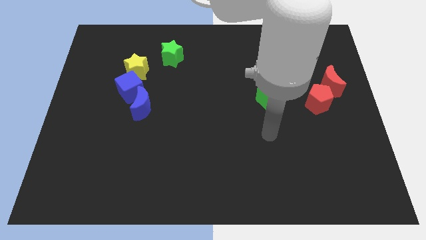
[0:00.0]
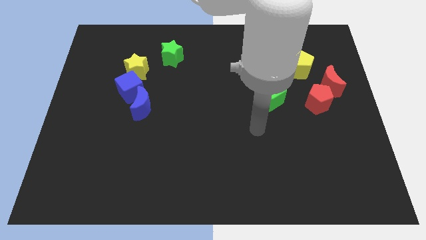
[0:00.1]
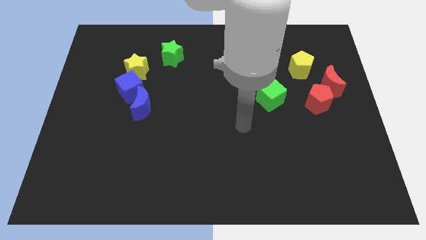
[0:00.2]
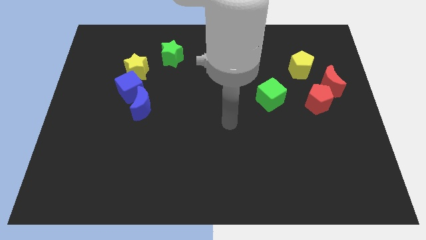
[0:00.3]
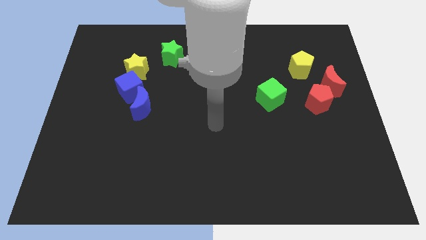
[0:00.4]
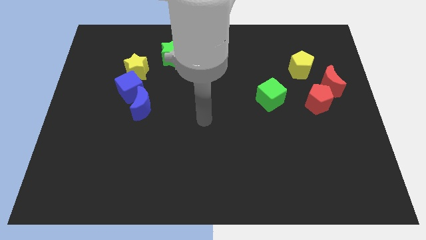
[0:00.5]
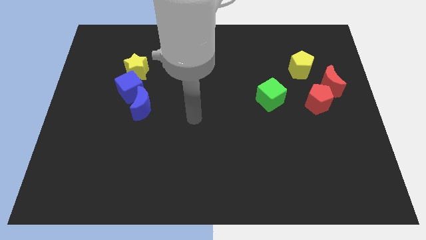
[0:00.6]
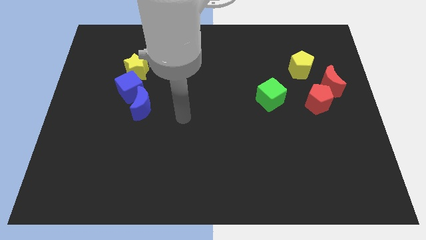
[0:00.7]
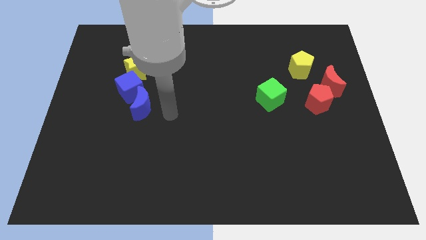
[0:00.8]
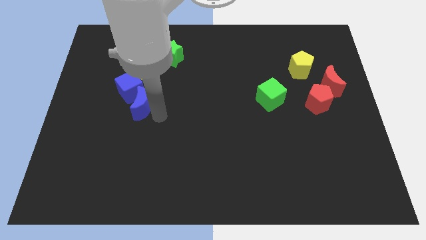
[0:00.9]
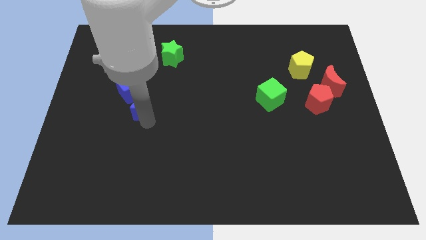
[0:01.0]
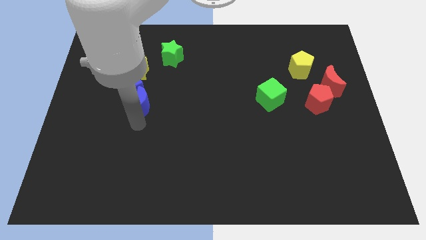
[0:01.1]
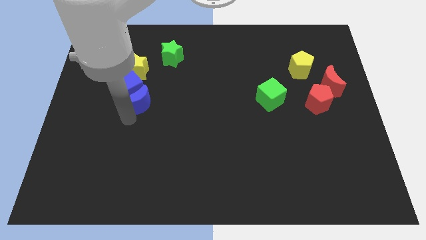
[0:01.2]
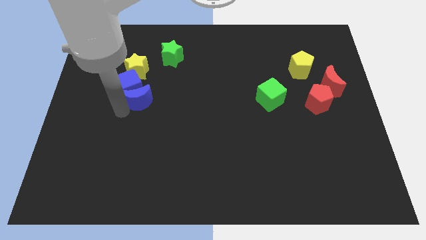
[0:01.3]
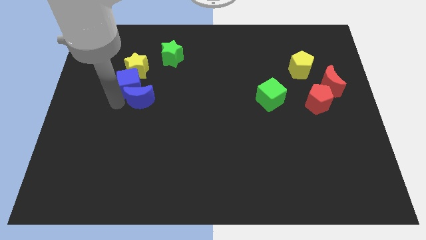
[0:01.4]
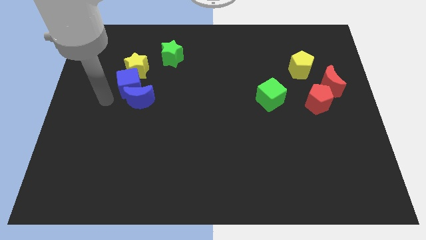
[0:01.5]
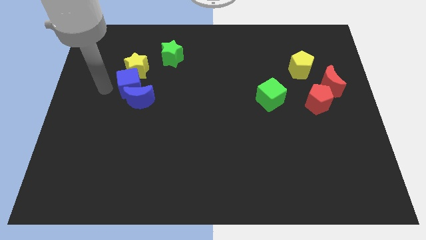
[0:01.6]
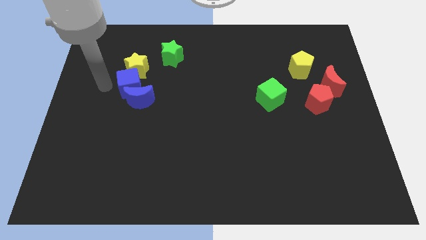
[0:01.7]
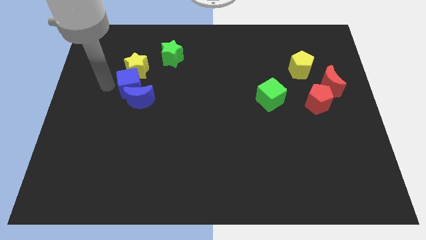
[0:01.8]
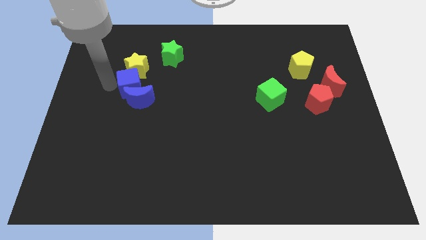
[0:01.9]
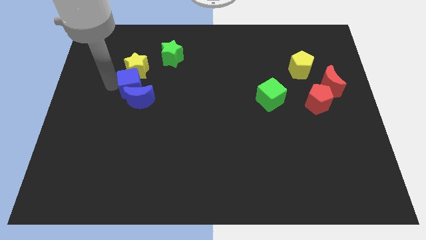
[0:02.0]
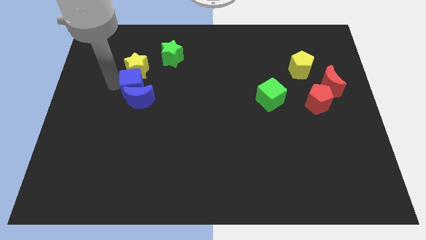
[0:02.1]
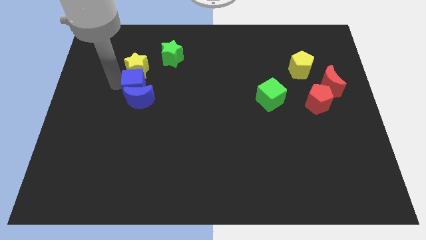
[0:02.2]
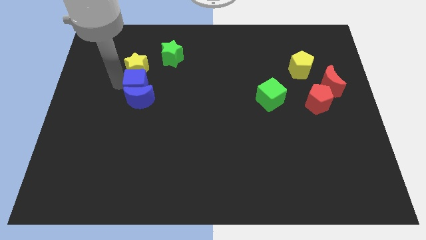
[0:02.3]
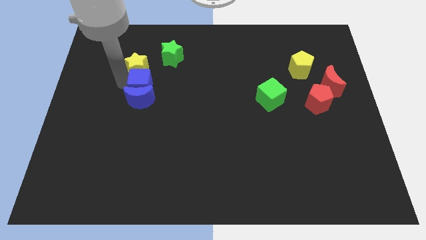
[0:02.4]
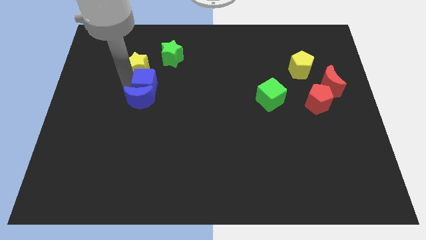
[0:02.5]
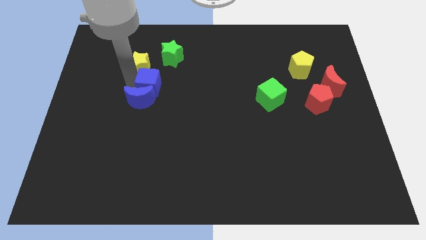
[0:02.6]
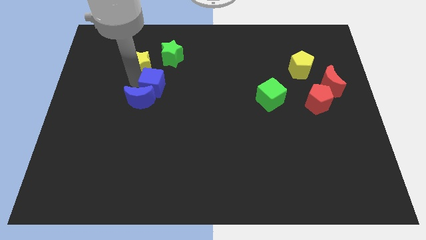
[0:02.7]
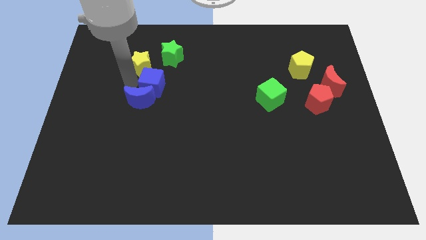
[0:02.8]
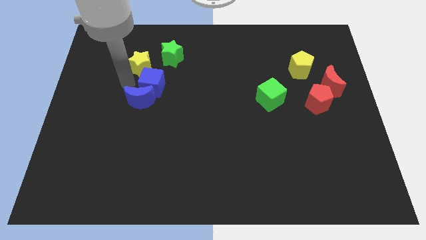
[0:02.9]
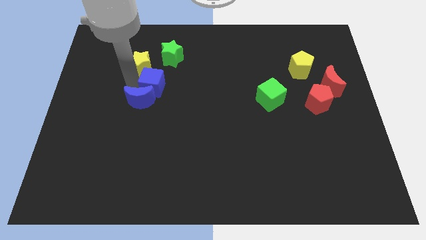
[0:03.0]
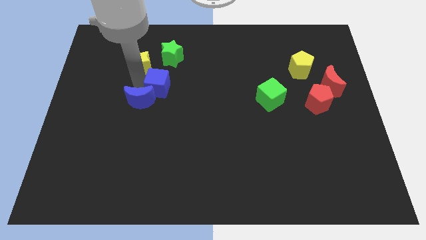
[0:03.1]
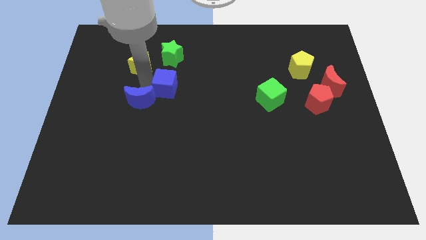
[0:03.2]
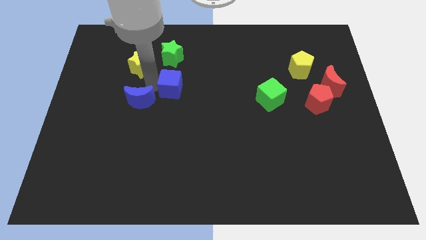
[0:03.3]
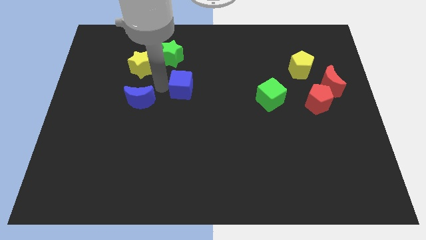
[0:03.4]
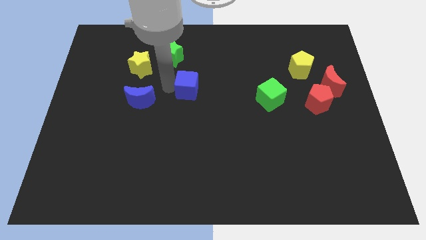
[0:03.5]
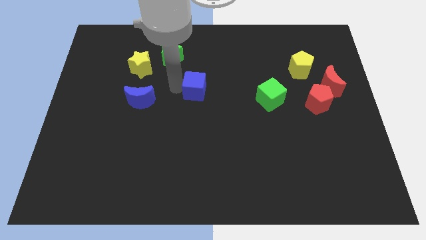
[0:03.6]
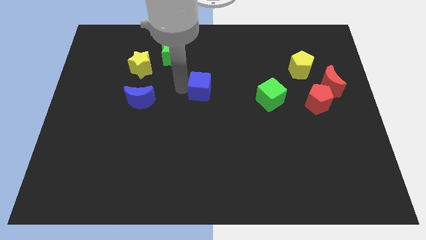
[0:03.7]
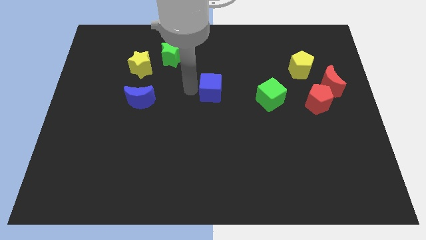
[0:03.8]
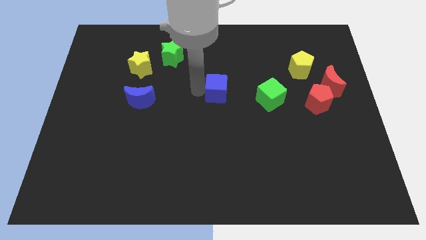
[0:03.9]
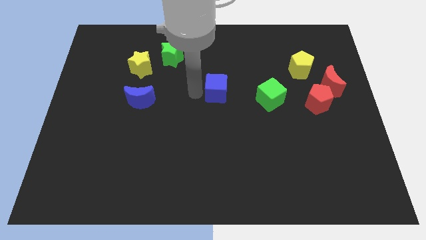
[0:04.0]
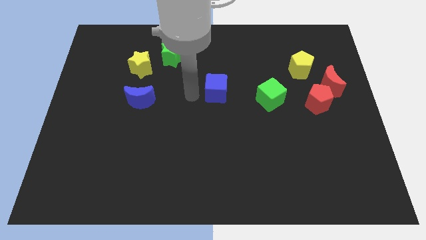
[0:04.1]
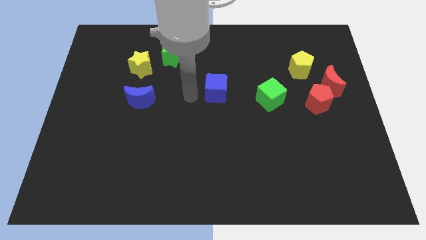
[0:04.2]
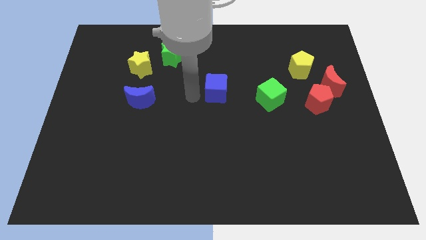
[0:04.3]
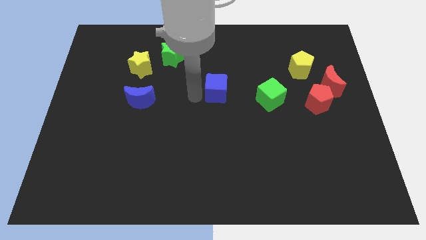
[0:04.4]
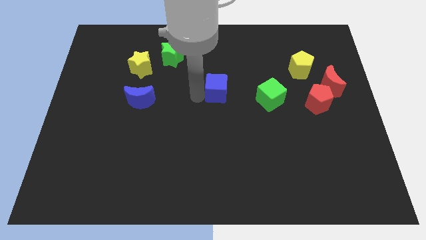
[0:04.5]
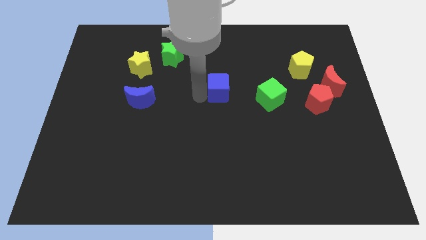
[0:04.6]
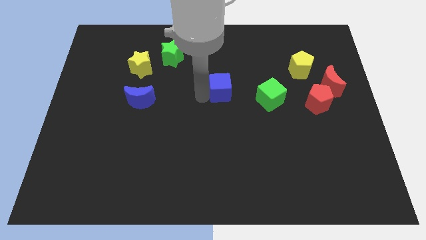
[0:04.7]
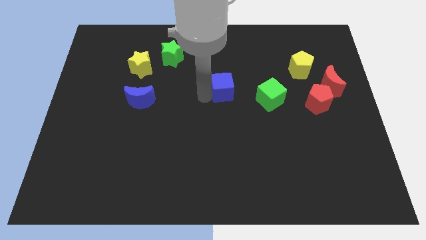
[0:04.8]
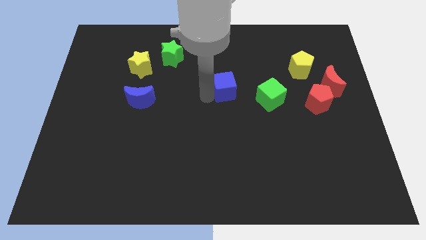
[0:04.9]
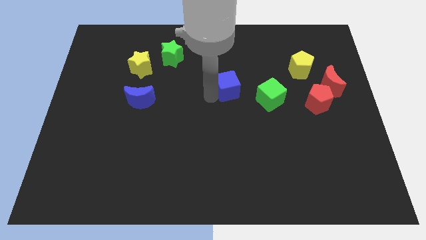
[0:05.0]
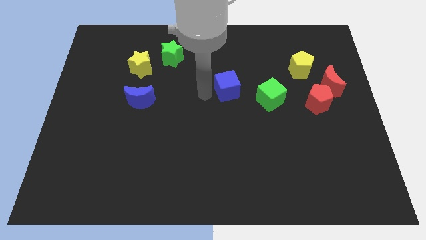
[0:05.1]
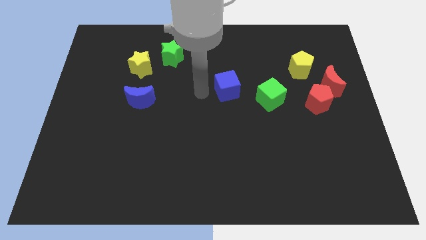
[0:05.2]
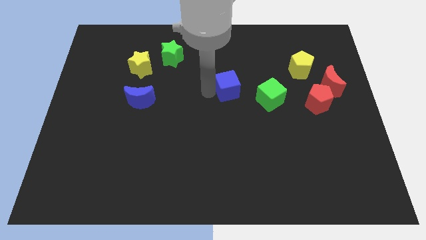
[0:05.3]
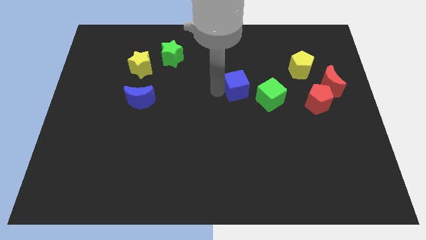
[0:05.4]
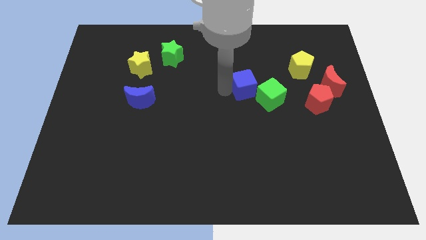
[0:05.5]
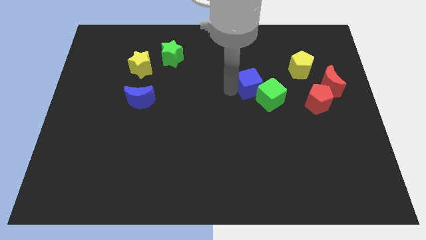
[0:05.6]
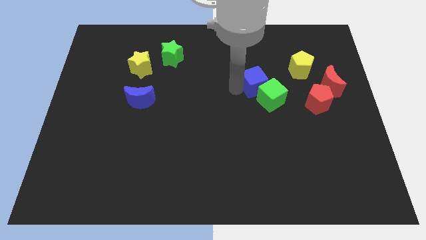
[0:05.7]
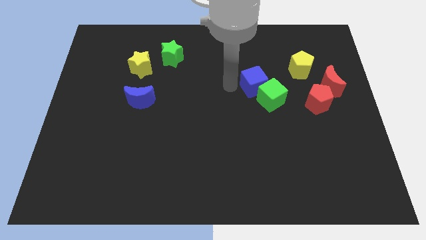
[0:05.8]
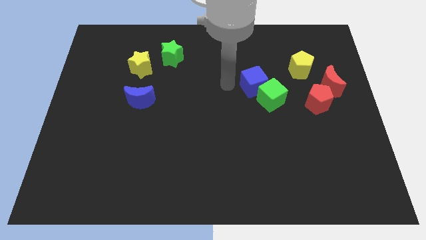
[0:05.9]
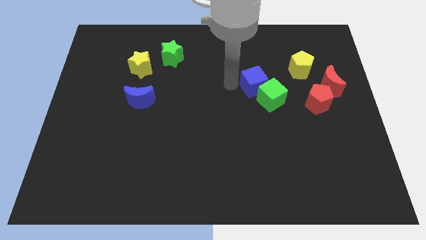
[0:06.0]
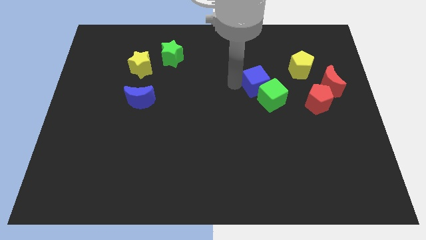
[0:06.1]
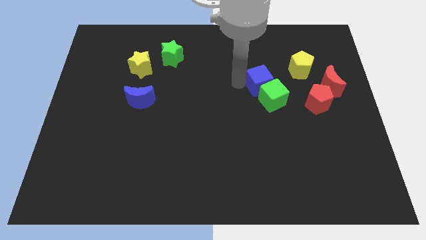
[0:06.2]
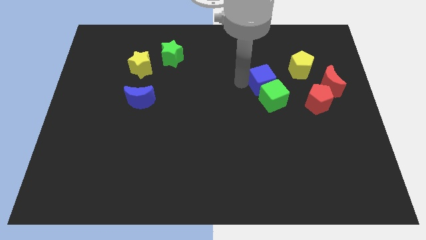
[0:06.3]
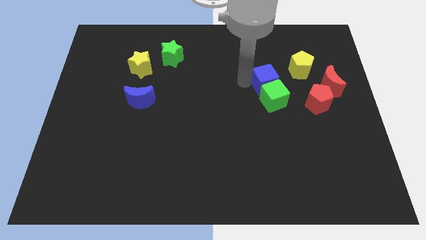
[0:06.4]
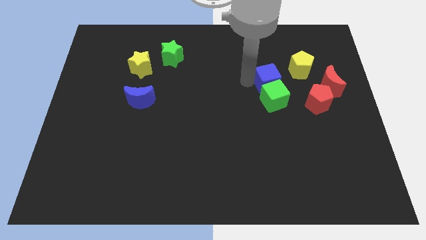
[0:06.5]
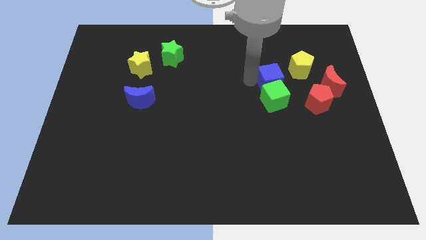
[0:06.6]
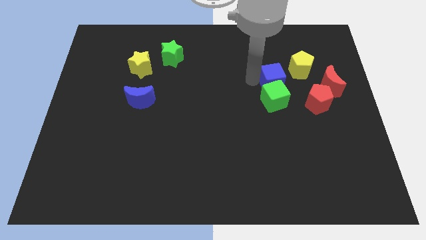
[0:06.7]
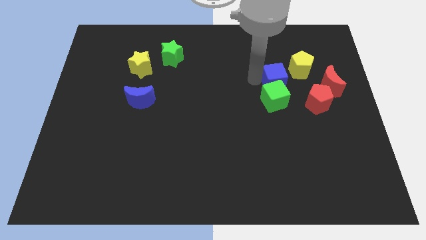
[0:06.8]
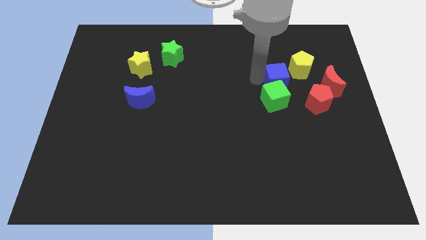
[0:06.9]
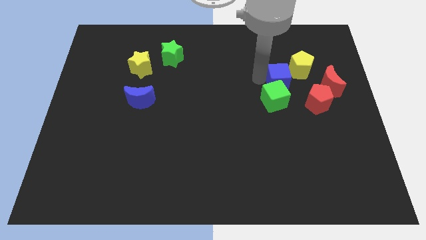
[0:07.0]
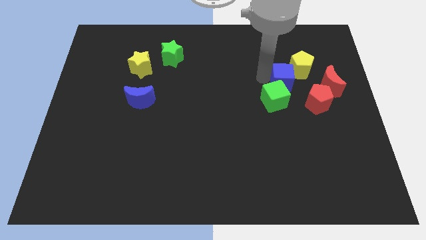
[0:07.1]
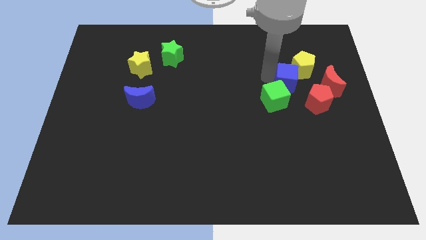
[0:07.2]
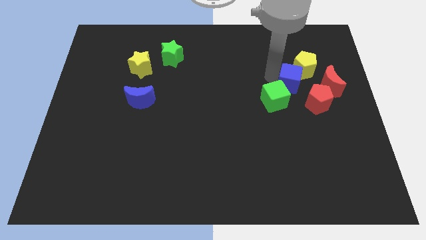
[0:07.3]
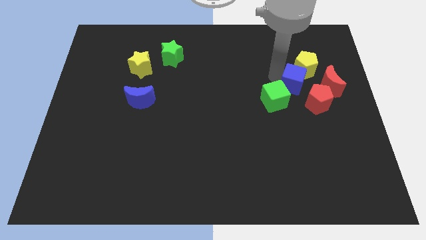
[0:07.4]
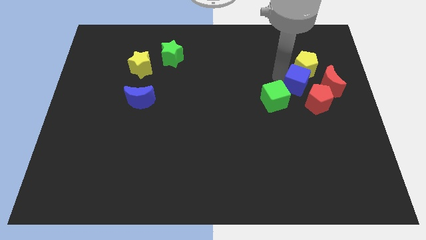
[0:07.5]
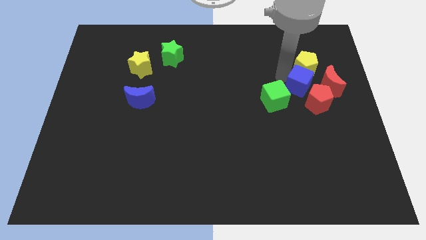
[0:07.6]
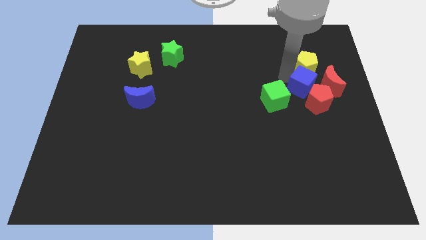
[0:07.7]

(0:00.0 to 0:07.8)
put the blue cube to the red pentagon
